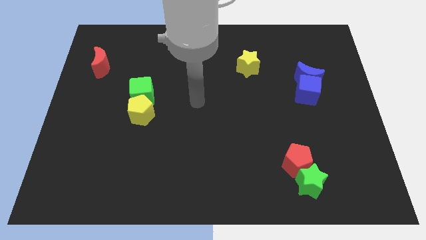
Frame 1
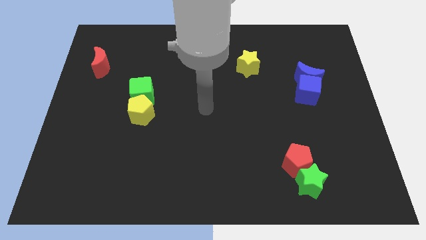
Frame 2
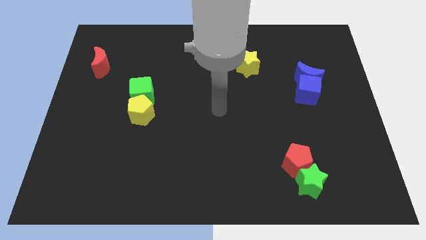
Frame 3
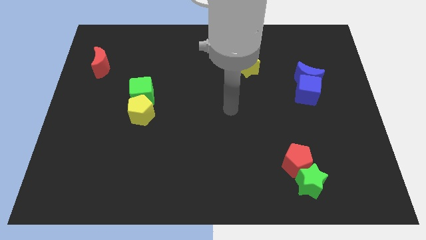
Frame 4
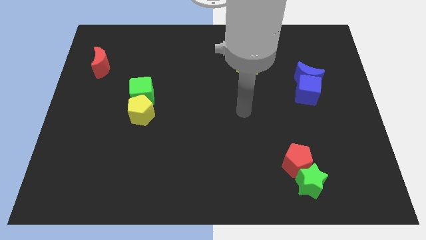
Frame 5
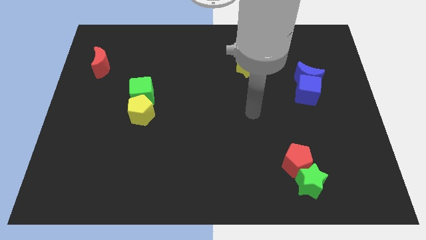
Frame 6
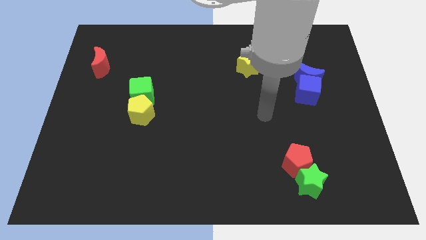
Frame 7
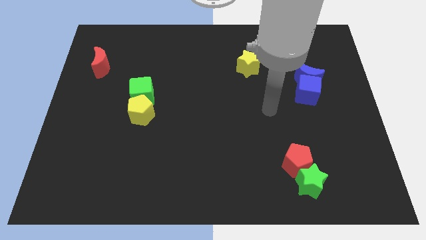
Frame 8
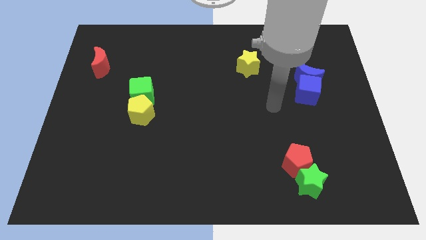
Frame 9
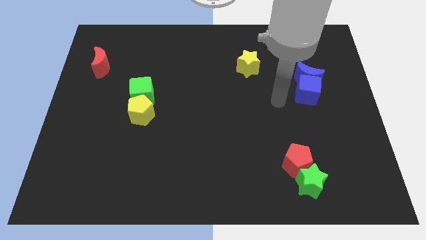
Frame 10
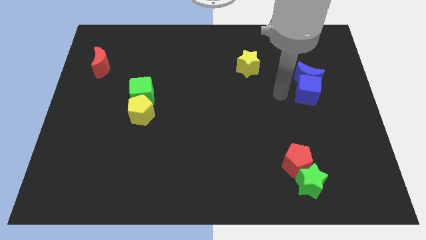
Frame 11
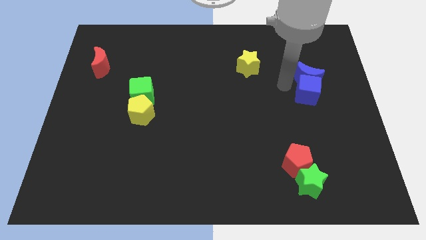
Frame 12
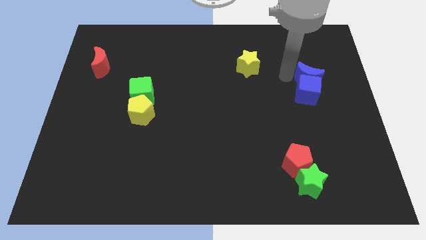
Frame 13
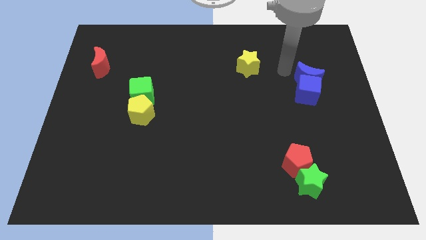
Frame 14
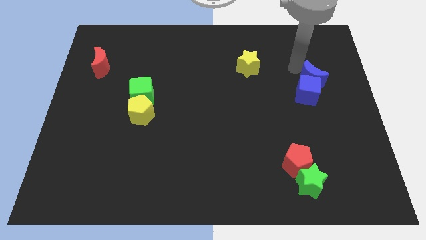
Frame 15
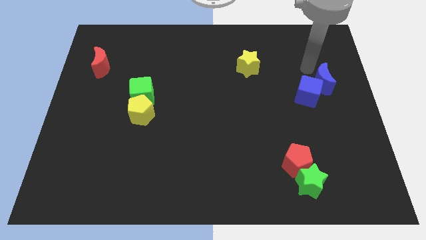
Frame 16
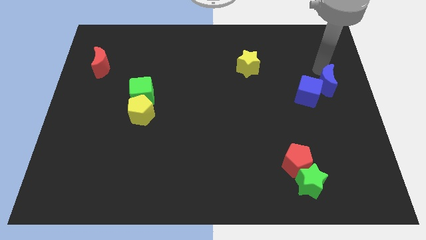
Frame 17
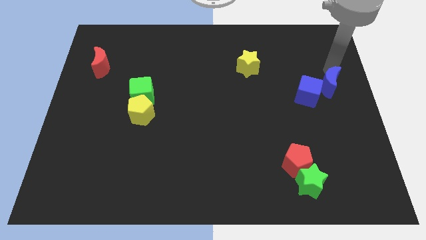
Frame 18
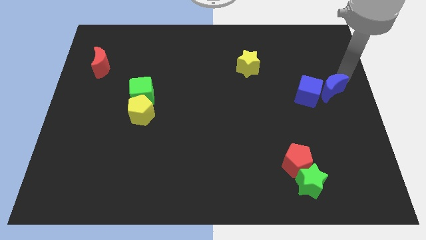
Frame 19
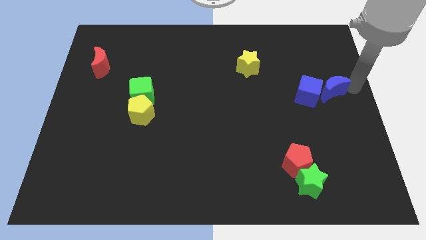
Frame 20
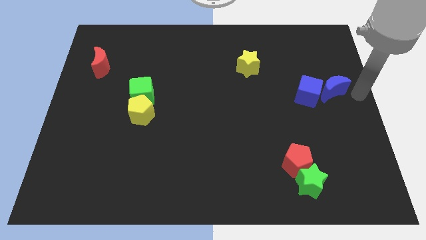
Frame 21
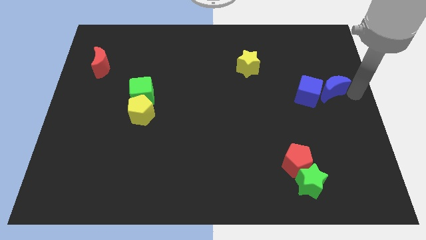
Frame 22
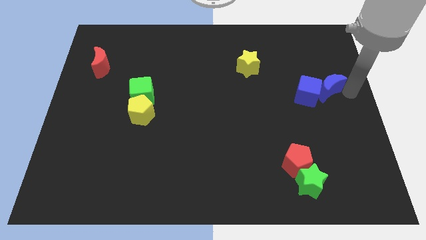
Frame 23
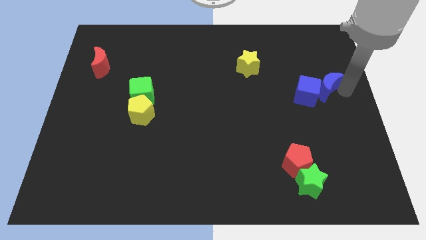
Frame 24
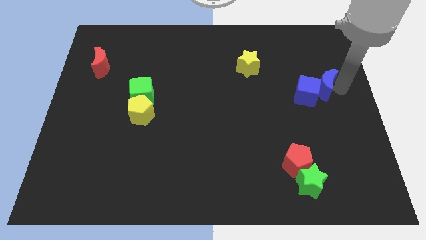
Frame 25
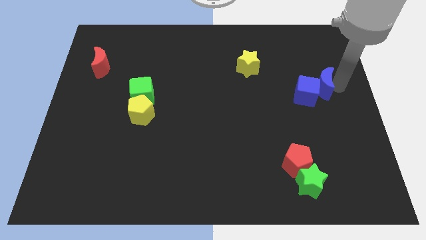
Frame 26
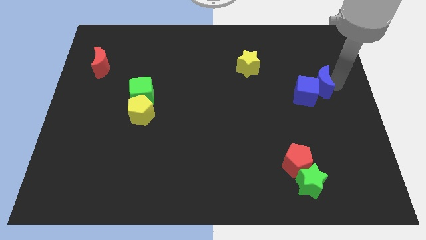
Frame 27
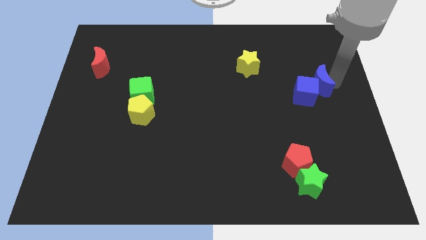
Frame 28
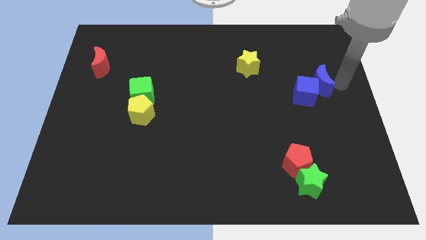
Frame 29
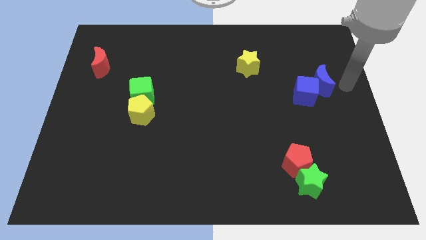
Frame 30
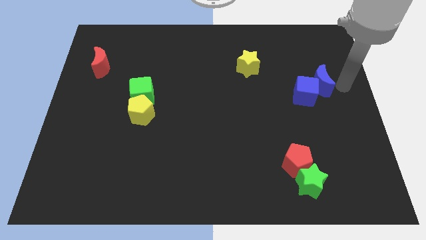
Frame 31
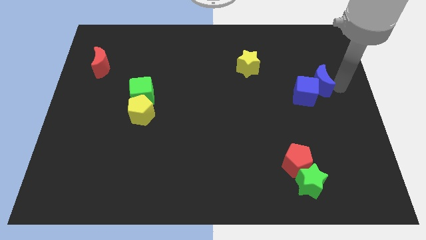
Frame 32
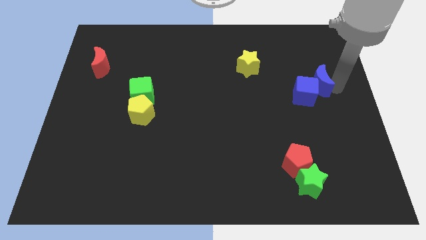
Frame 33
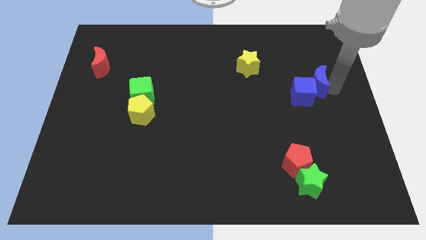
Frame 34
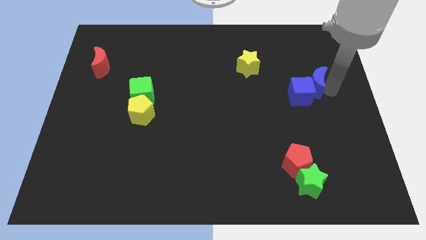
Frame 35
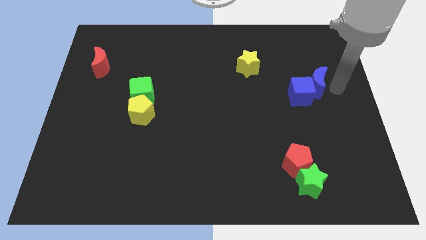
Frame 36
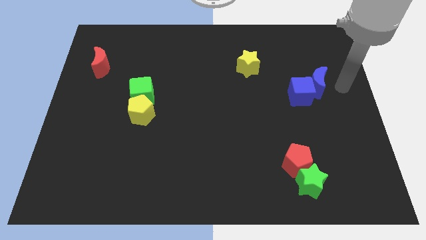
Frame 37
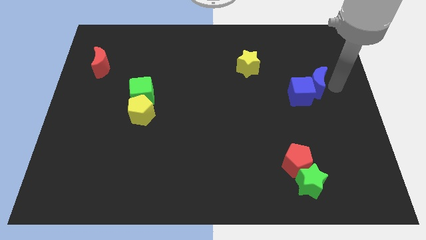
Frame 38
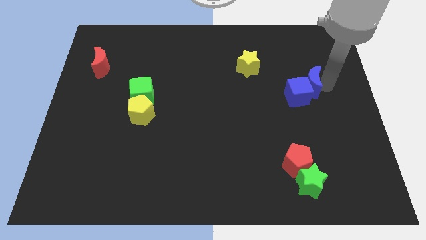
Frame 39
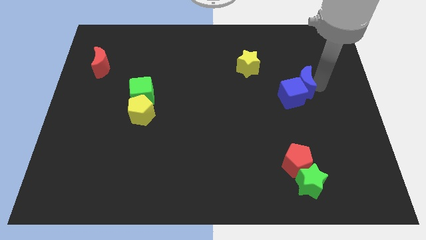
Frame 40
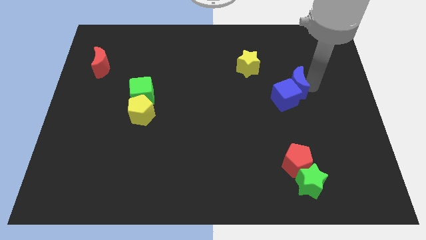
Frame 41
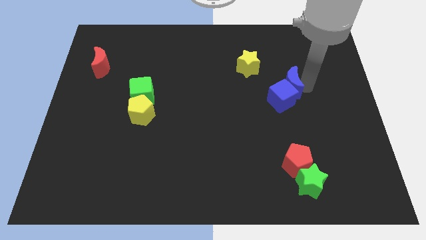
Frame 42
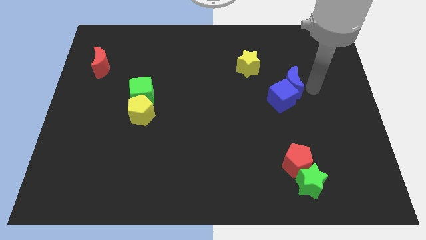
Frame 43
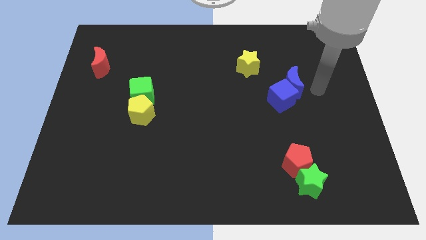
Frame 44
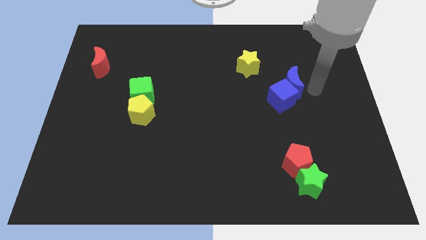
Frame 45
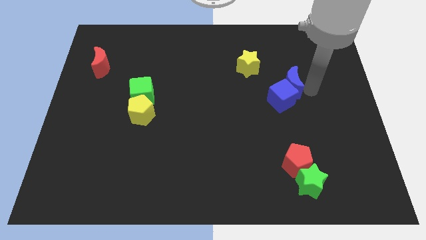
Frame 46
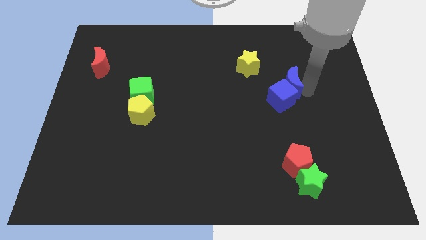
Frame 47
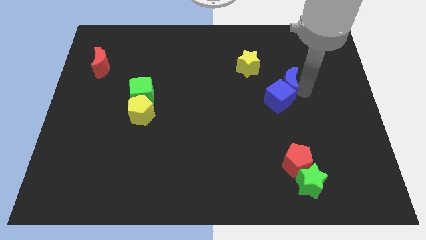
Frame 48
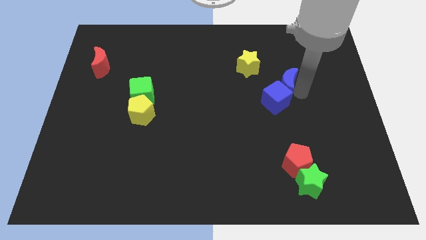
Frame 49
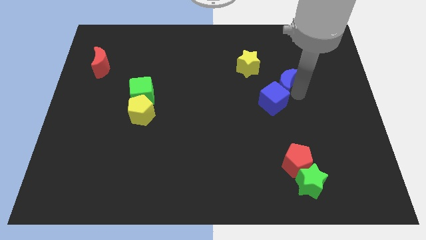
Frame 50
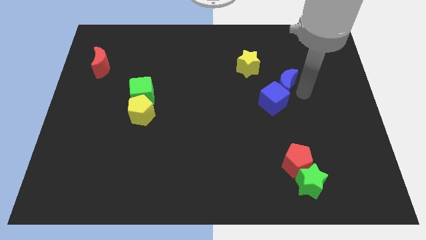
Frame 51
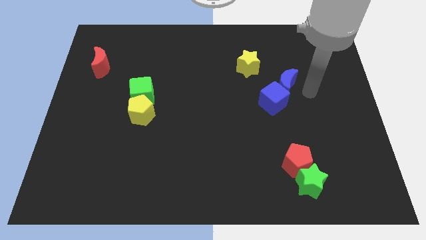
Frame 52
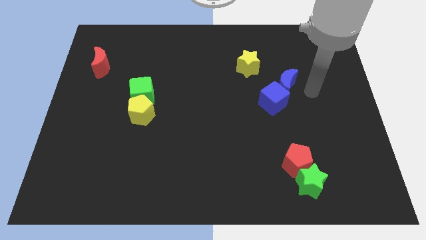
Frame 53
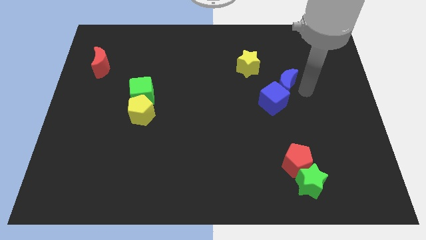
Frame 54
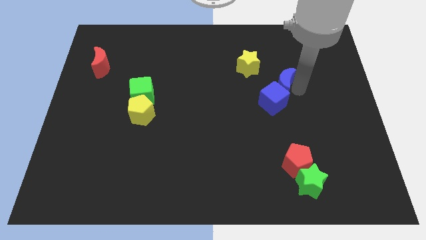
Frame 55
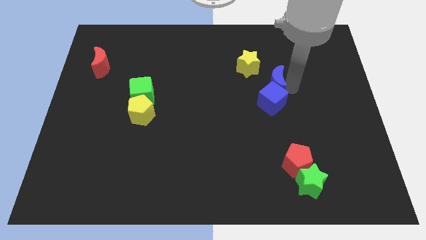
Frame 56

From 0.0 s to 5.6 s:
move the blue moon a little bit left

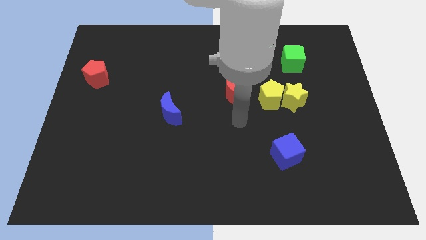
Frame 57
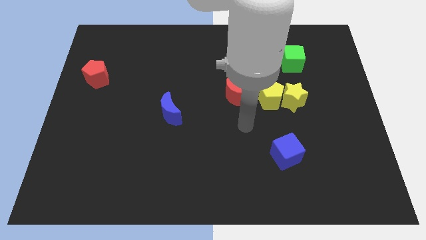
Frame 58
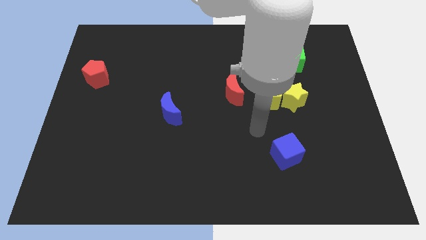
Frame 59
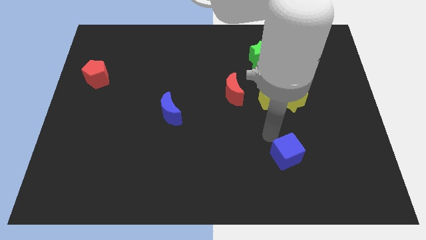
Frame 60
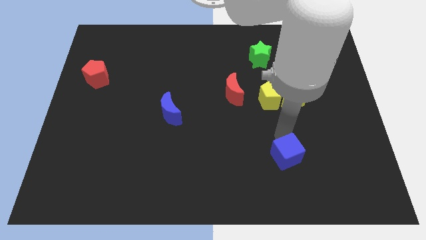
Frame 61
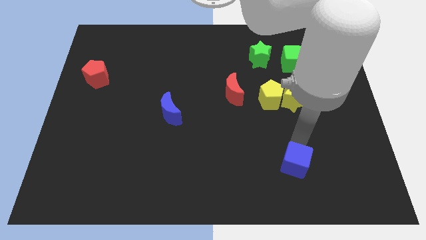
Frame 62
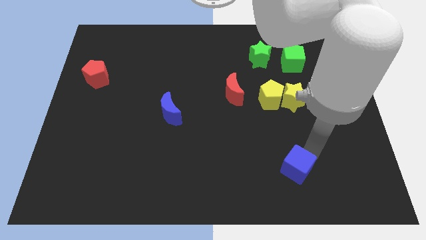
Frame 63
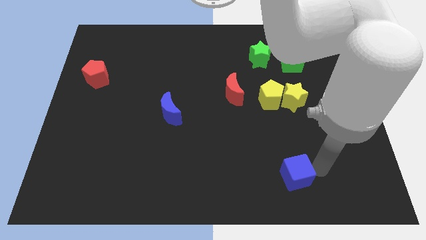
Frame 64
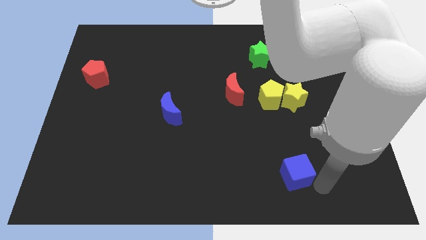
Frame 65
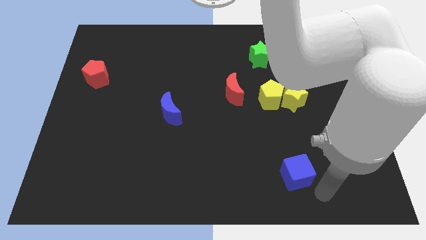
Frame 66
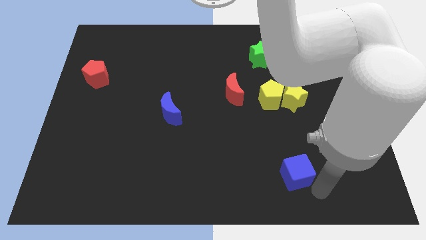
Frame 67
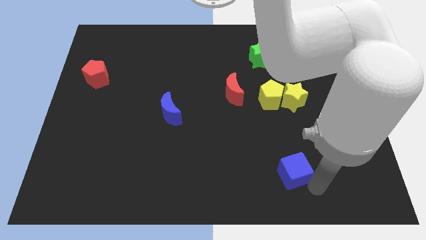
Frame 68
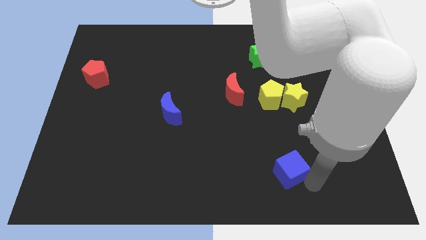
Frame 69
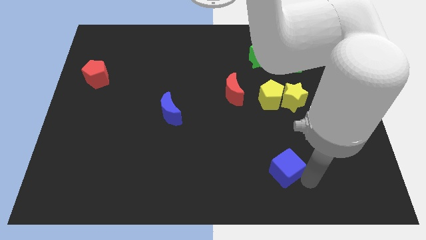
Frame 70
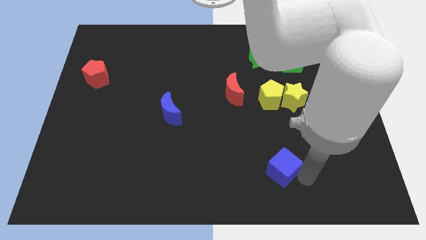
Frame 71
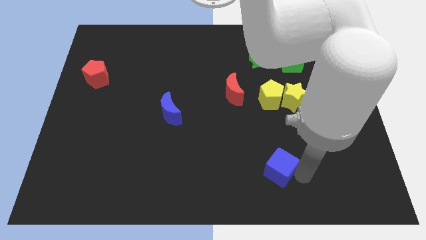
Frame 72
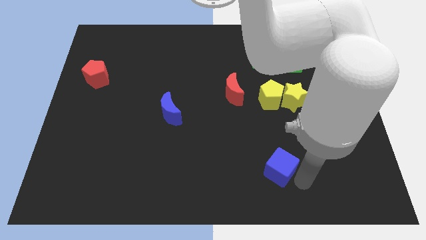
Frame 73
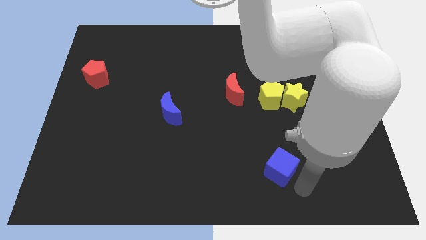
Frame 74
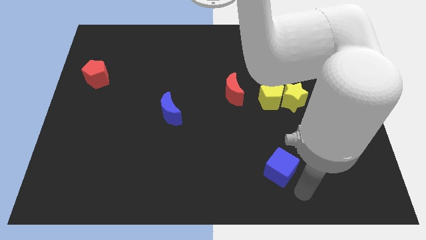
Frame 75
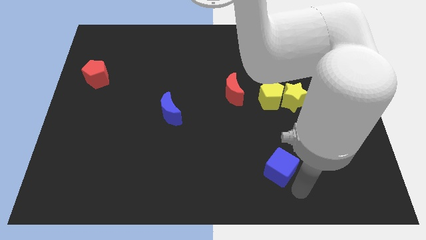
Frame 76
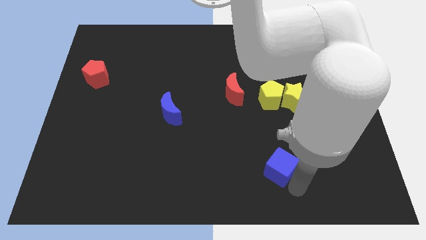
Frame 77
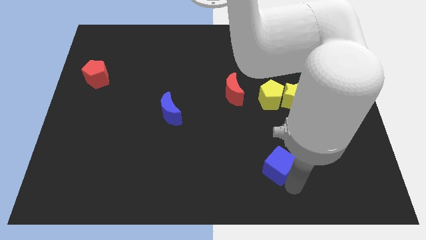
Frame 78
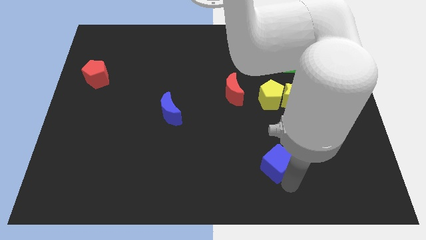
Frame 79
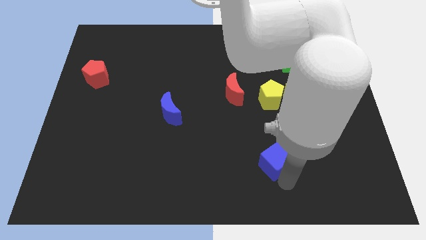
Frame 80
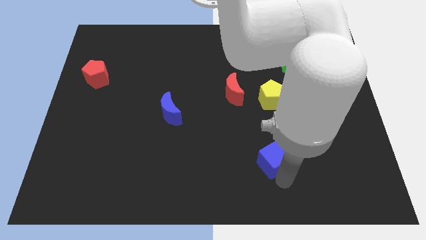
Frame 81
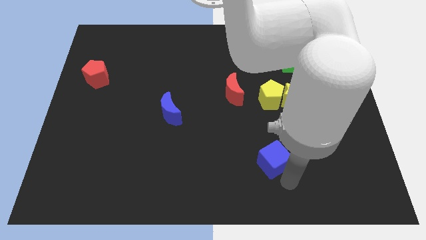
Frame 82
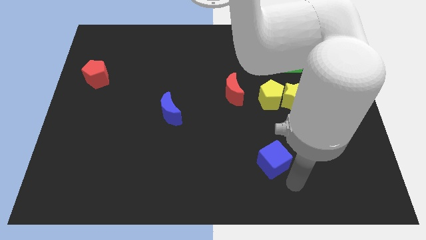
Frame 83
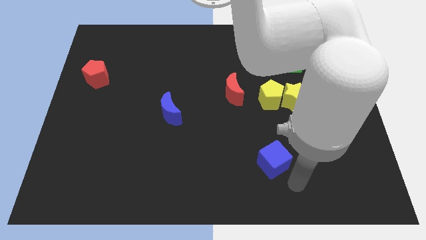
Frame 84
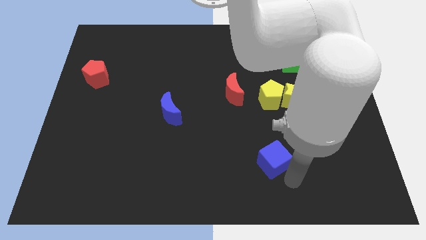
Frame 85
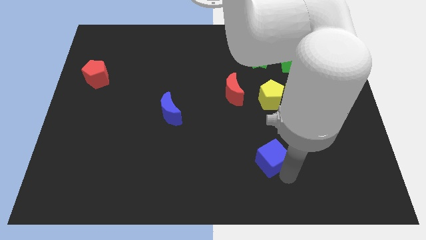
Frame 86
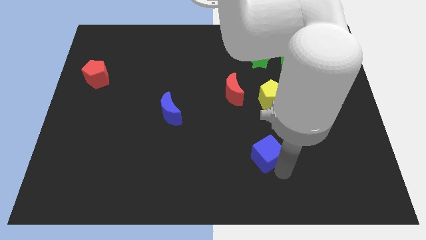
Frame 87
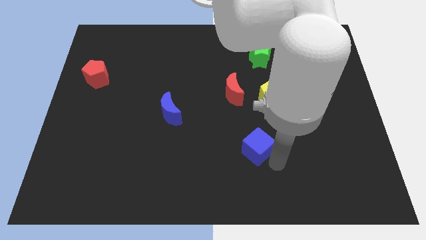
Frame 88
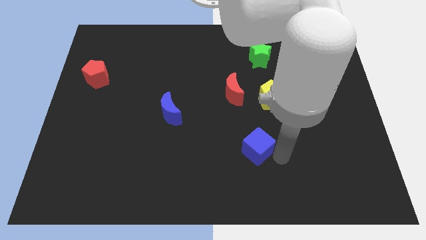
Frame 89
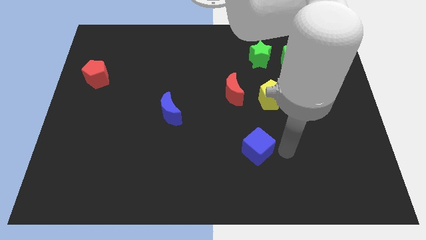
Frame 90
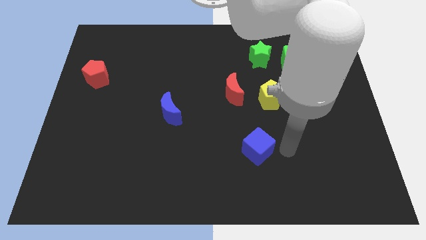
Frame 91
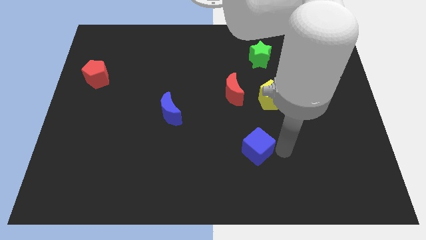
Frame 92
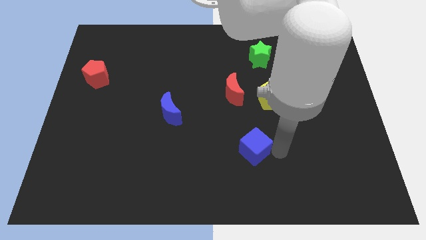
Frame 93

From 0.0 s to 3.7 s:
slide the blue cube somewhat left
